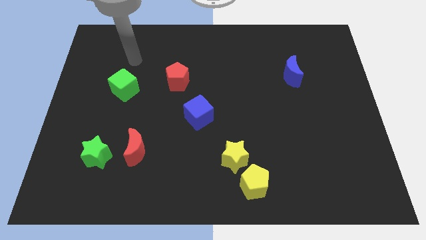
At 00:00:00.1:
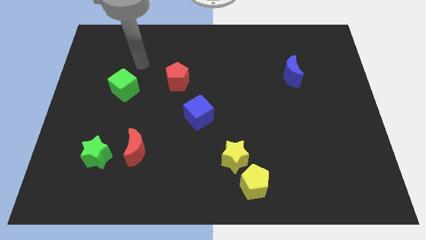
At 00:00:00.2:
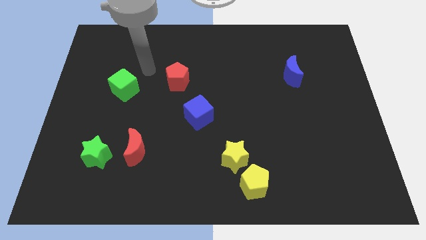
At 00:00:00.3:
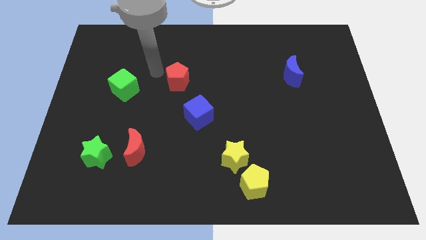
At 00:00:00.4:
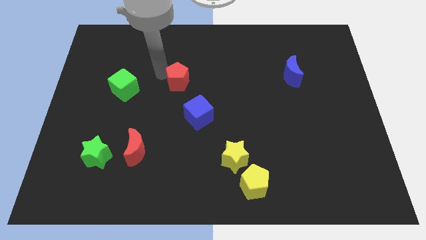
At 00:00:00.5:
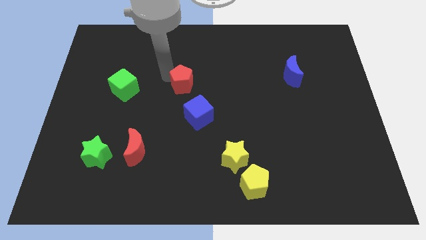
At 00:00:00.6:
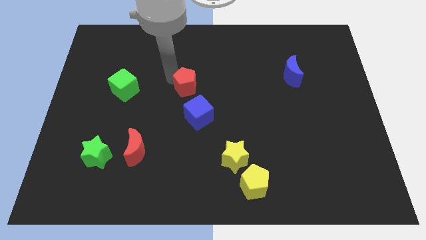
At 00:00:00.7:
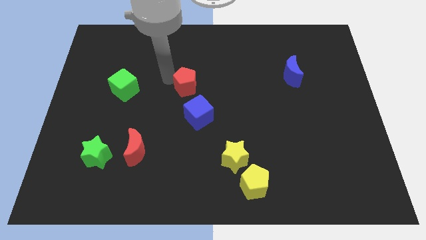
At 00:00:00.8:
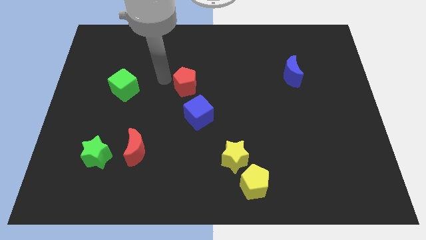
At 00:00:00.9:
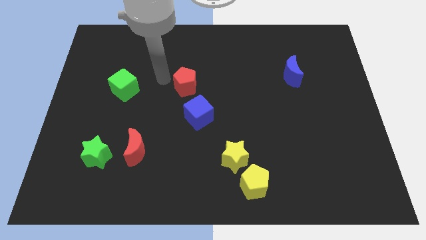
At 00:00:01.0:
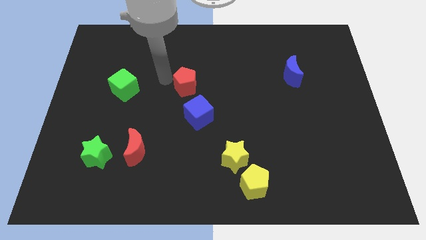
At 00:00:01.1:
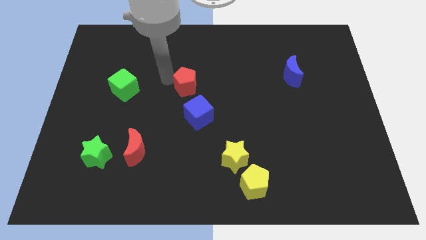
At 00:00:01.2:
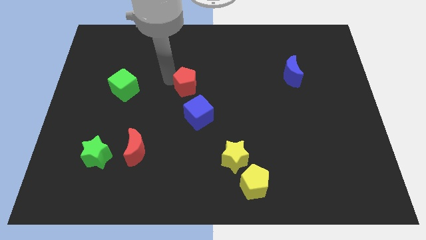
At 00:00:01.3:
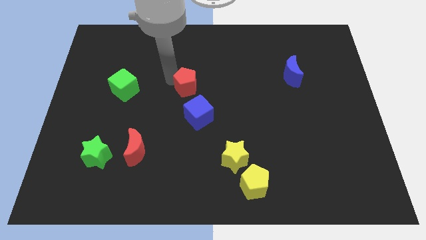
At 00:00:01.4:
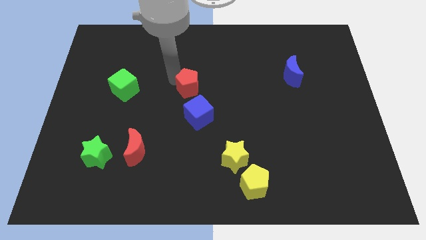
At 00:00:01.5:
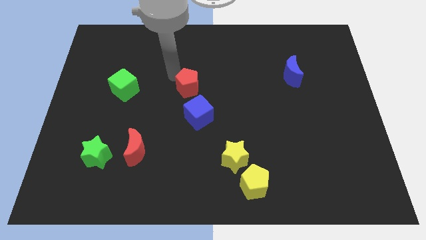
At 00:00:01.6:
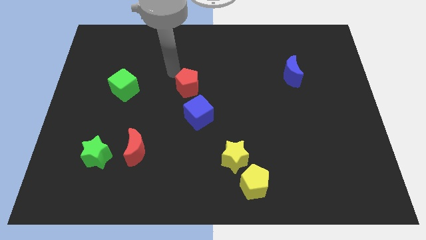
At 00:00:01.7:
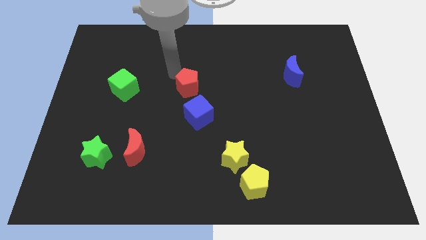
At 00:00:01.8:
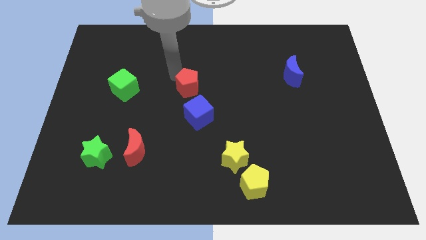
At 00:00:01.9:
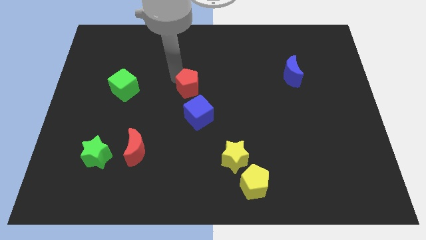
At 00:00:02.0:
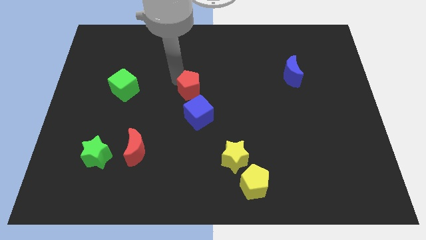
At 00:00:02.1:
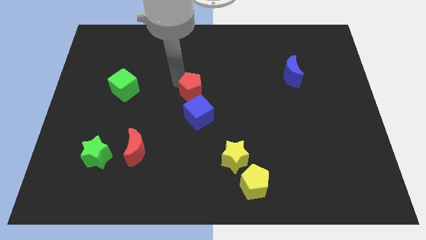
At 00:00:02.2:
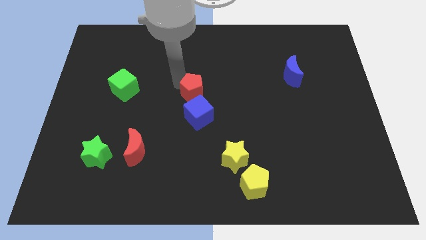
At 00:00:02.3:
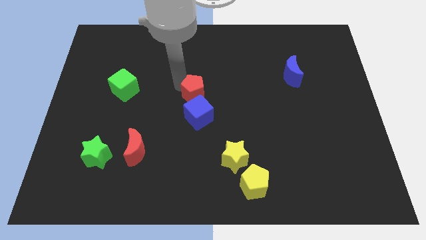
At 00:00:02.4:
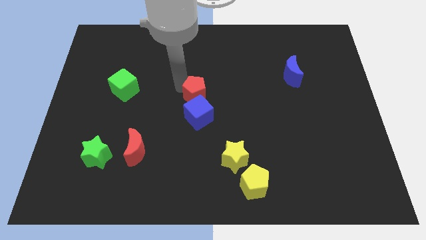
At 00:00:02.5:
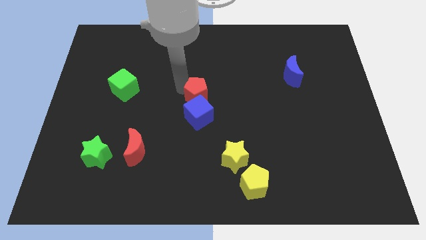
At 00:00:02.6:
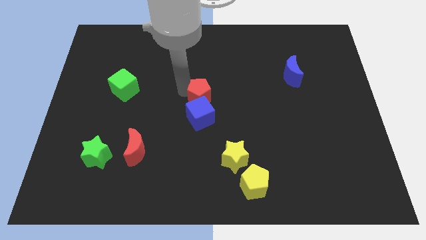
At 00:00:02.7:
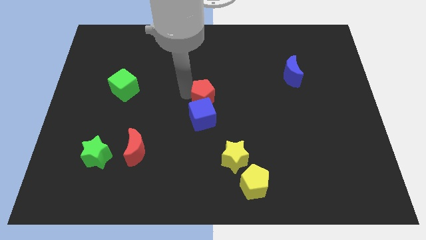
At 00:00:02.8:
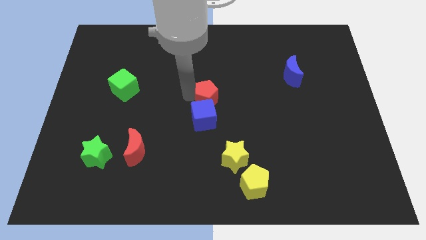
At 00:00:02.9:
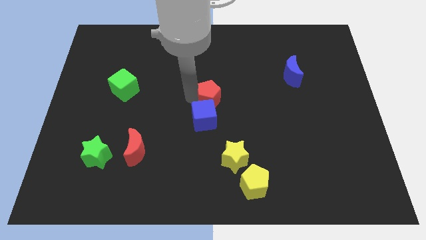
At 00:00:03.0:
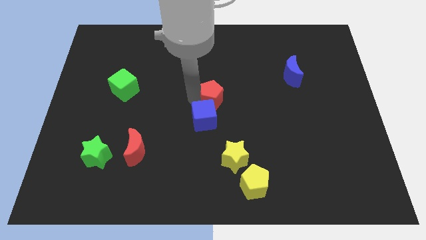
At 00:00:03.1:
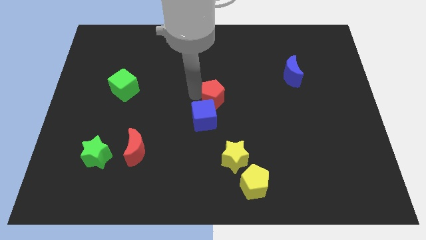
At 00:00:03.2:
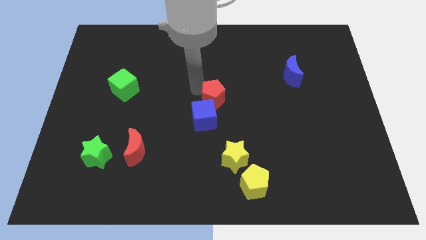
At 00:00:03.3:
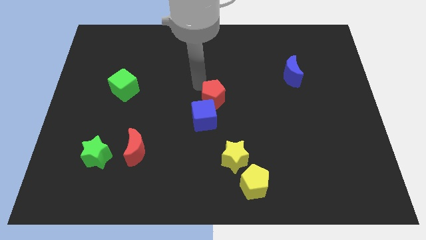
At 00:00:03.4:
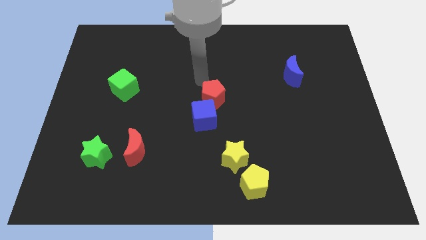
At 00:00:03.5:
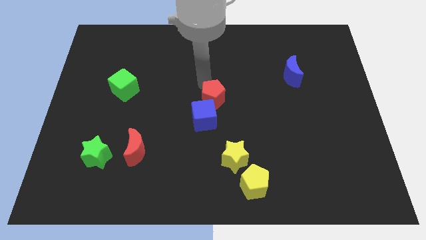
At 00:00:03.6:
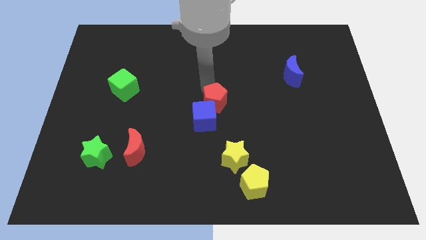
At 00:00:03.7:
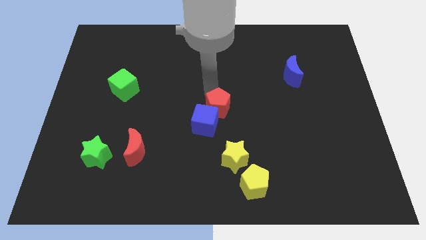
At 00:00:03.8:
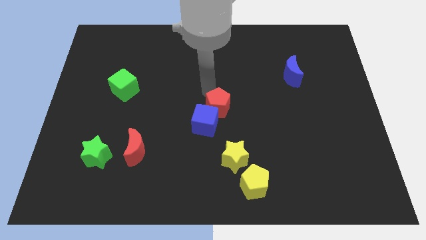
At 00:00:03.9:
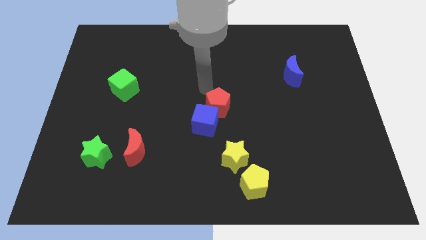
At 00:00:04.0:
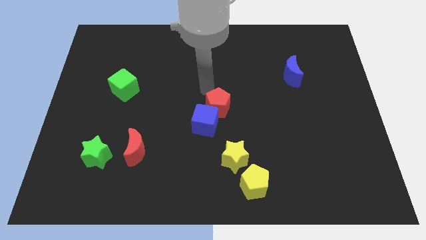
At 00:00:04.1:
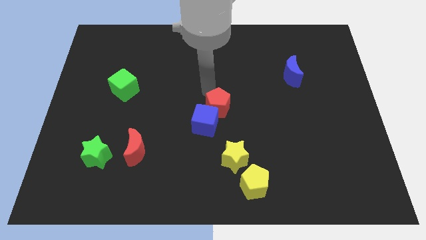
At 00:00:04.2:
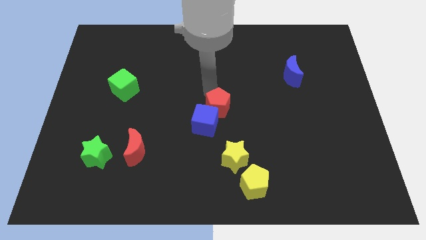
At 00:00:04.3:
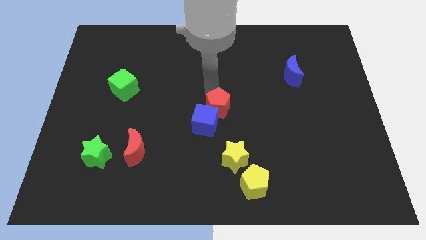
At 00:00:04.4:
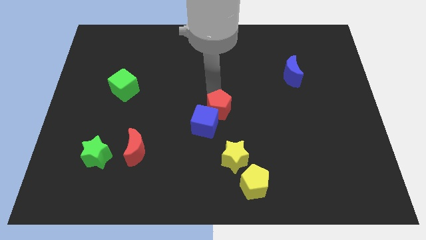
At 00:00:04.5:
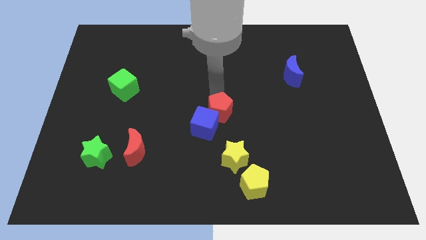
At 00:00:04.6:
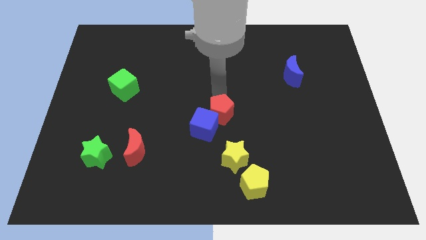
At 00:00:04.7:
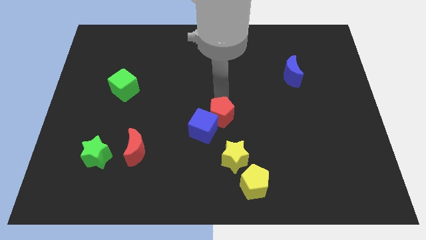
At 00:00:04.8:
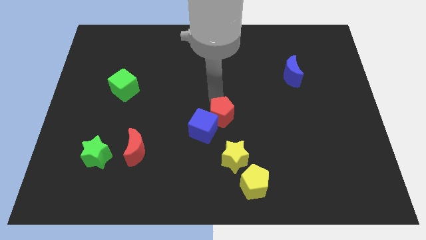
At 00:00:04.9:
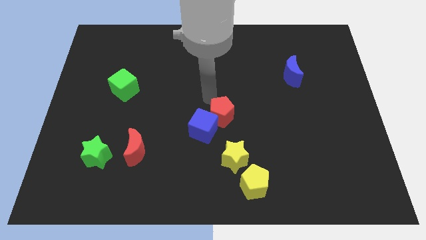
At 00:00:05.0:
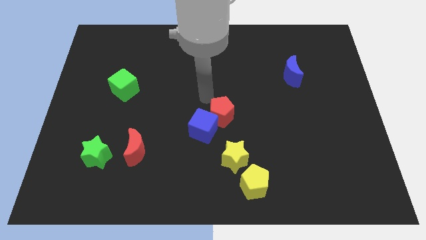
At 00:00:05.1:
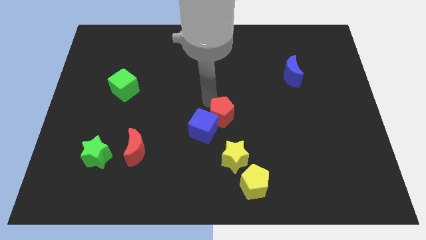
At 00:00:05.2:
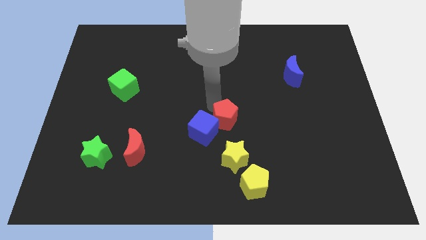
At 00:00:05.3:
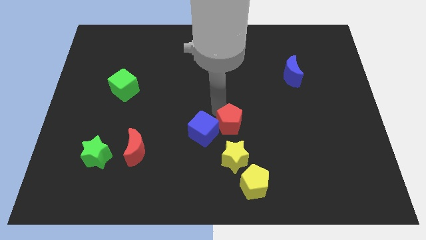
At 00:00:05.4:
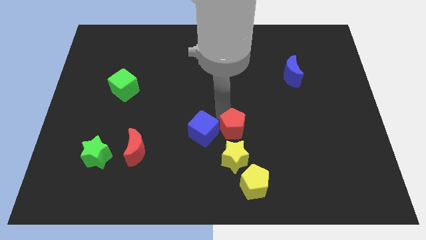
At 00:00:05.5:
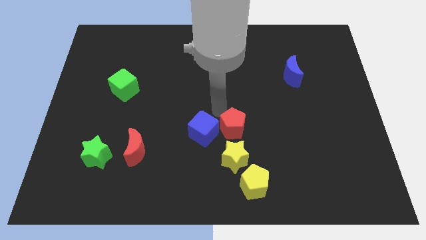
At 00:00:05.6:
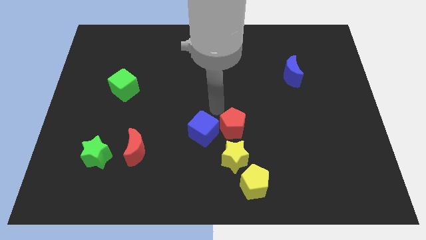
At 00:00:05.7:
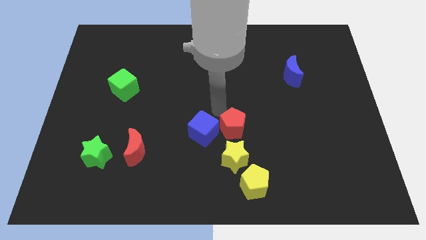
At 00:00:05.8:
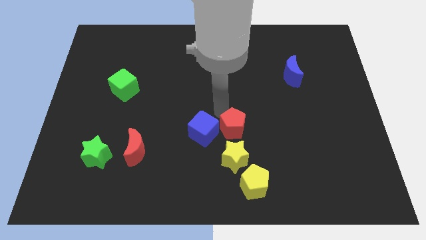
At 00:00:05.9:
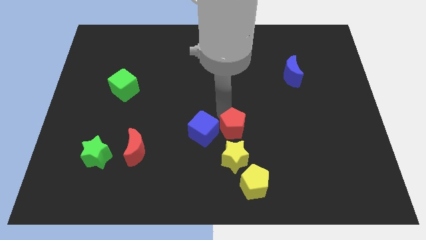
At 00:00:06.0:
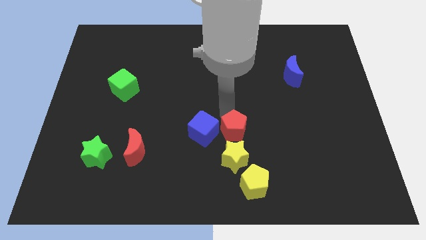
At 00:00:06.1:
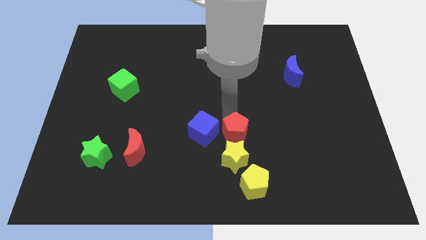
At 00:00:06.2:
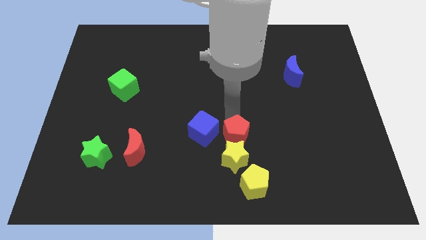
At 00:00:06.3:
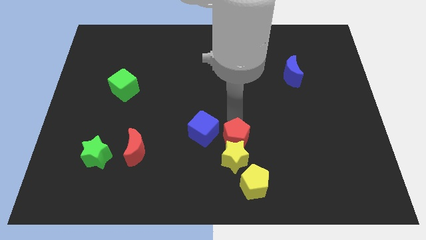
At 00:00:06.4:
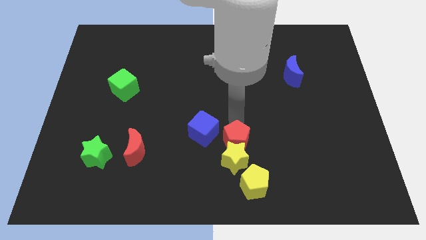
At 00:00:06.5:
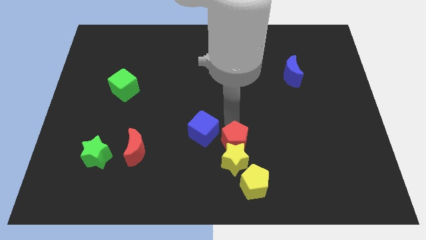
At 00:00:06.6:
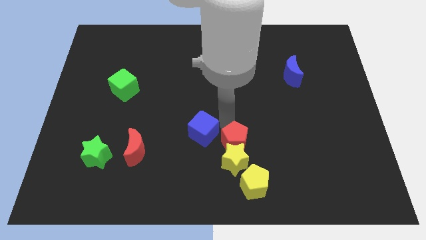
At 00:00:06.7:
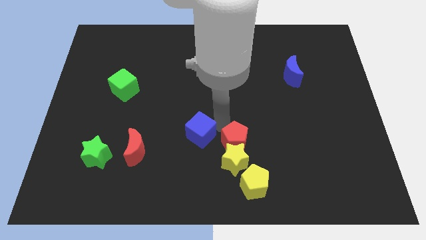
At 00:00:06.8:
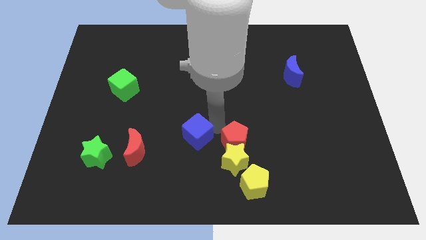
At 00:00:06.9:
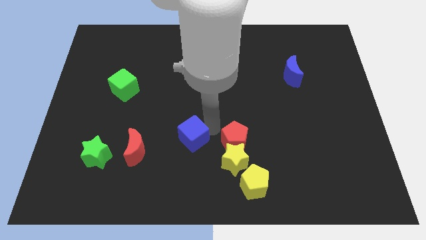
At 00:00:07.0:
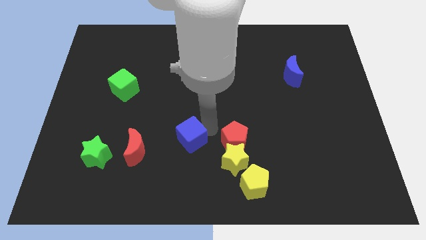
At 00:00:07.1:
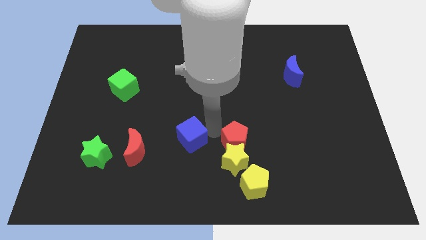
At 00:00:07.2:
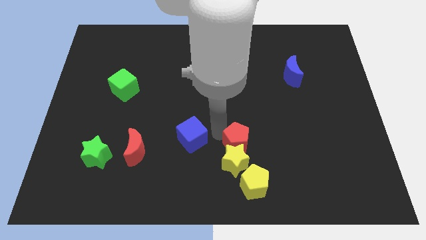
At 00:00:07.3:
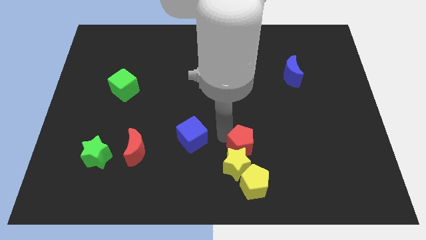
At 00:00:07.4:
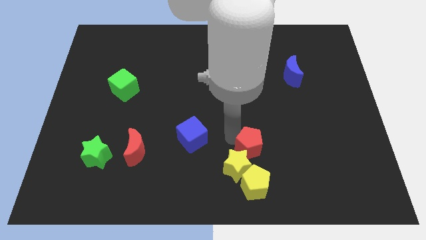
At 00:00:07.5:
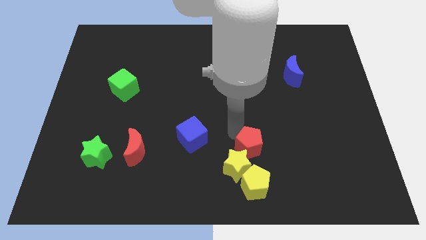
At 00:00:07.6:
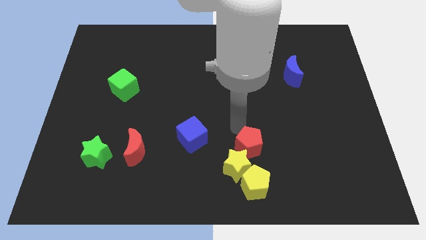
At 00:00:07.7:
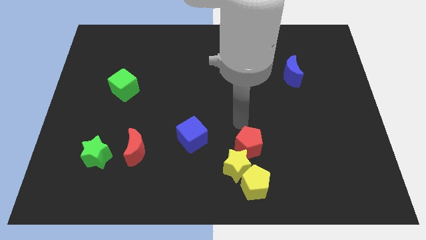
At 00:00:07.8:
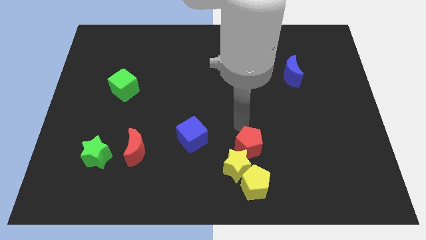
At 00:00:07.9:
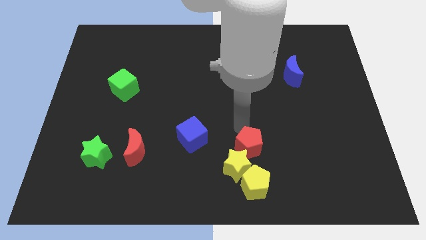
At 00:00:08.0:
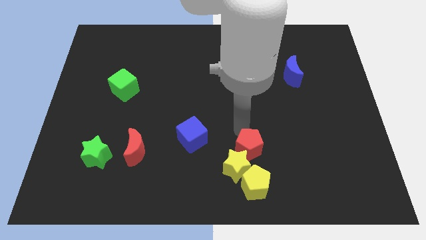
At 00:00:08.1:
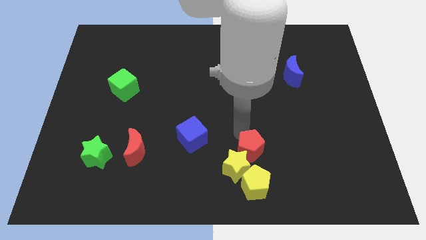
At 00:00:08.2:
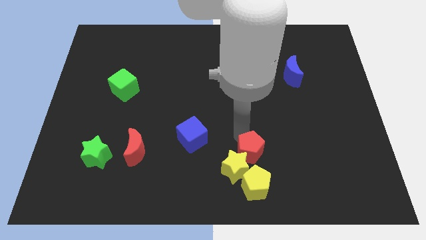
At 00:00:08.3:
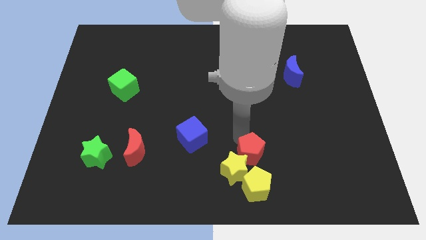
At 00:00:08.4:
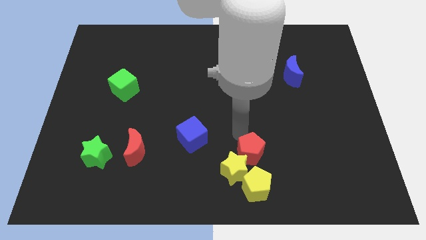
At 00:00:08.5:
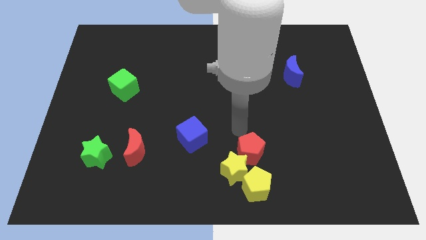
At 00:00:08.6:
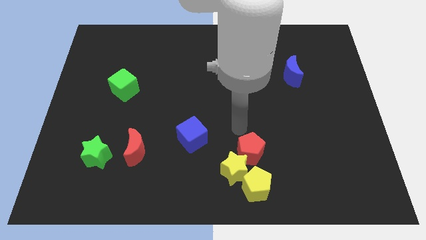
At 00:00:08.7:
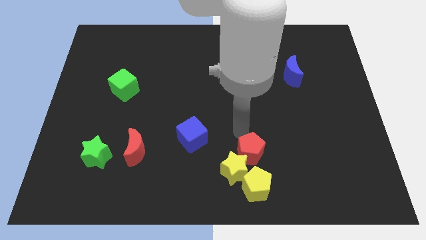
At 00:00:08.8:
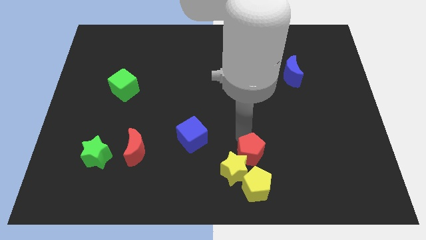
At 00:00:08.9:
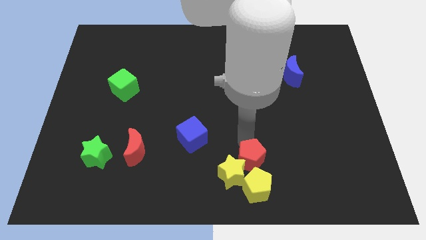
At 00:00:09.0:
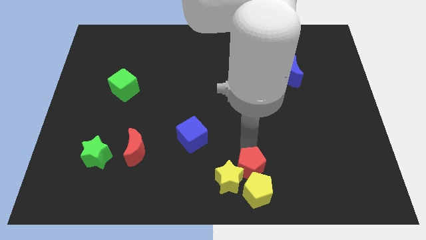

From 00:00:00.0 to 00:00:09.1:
move the red pentagon to the yellow pentagon
